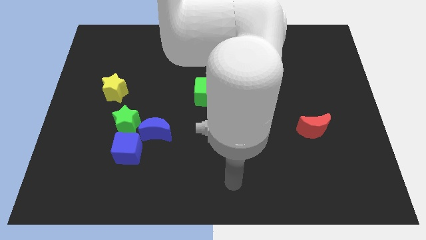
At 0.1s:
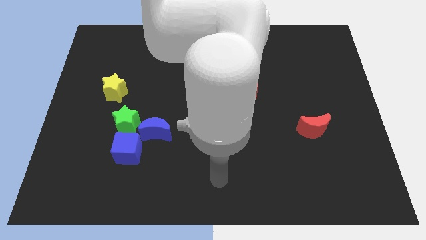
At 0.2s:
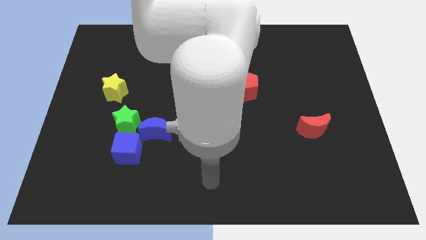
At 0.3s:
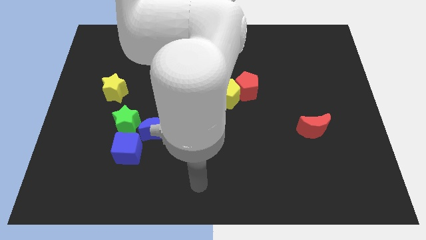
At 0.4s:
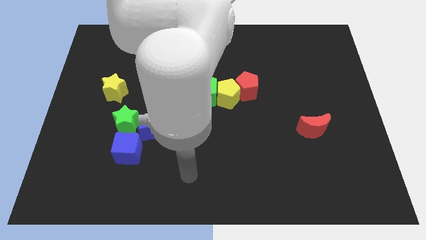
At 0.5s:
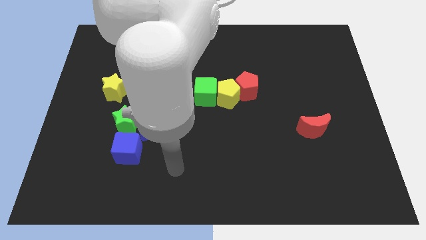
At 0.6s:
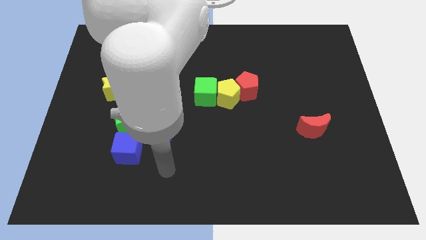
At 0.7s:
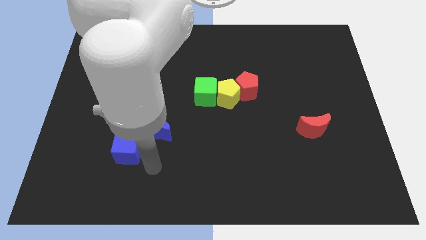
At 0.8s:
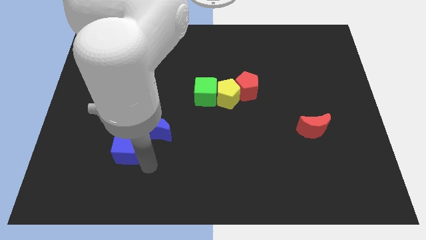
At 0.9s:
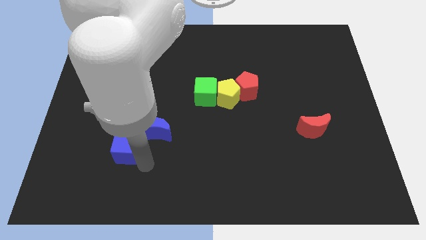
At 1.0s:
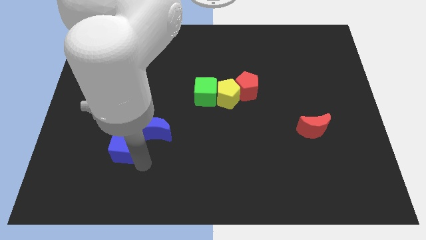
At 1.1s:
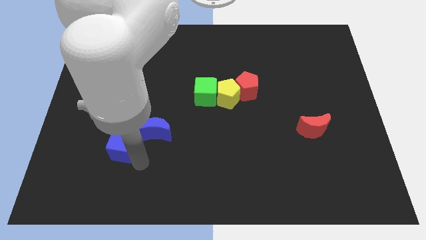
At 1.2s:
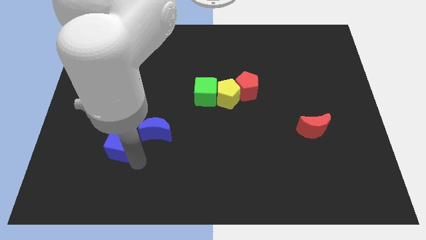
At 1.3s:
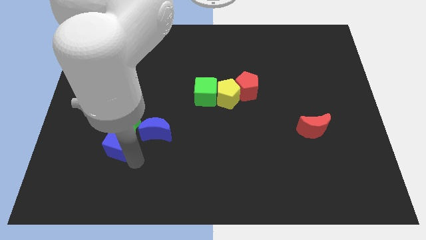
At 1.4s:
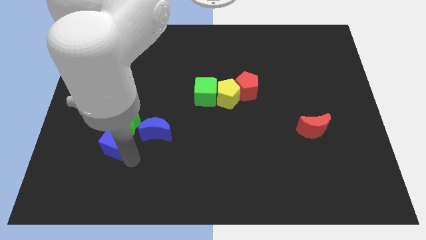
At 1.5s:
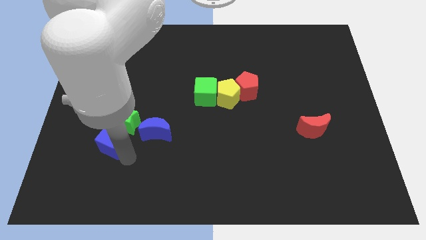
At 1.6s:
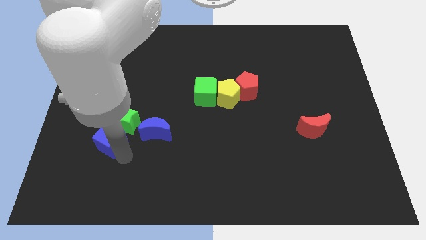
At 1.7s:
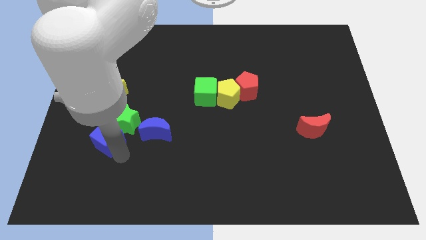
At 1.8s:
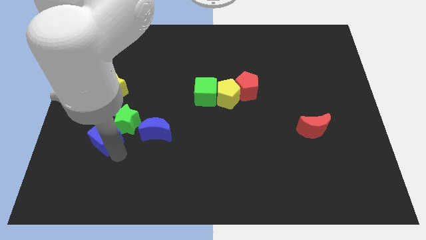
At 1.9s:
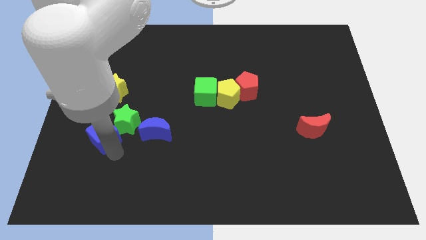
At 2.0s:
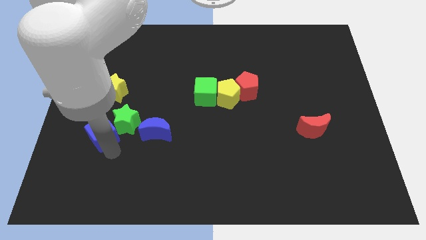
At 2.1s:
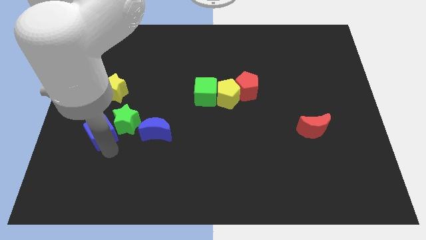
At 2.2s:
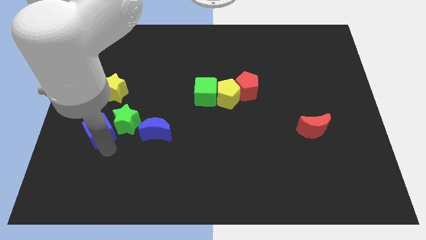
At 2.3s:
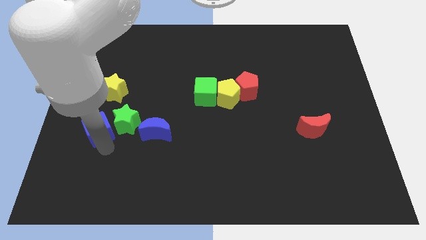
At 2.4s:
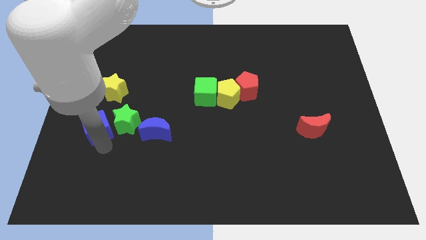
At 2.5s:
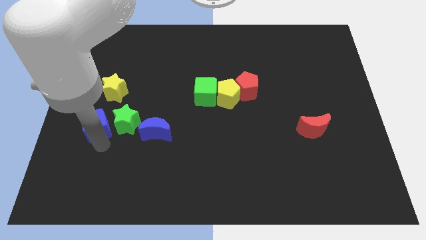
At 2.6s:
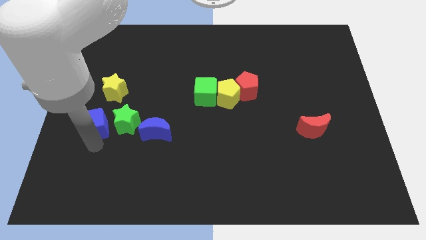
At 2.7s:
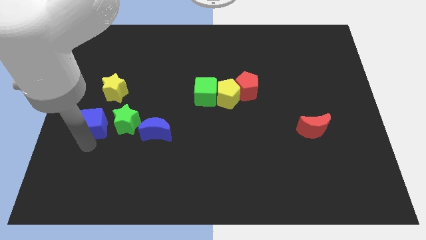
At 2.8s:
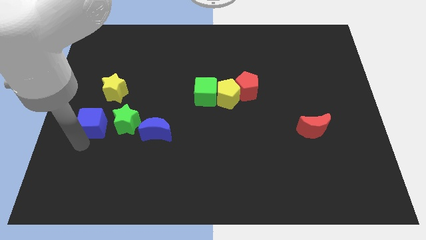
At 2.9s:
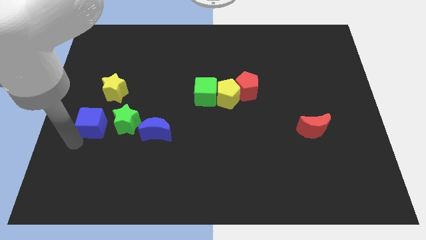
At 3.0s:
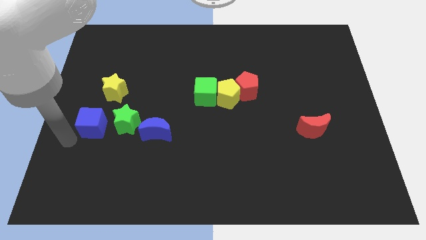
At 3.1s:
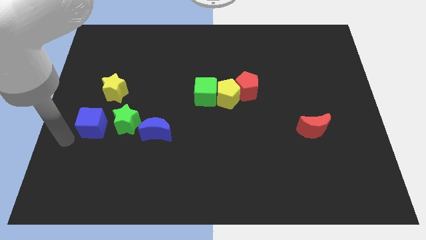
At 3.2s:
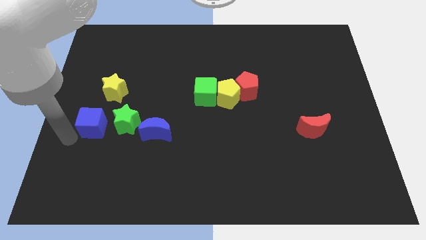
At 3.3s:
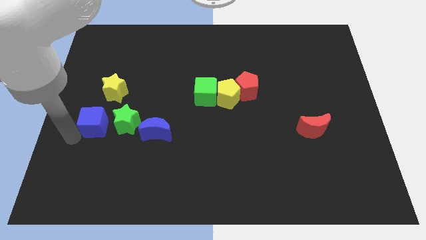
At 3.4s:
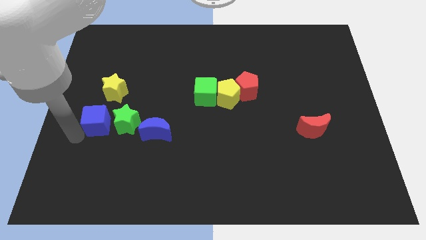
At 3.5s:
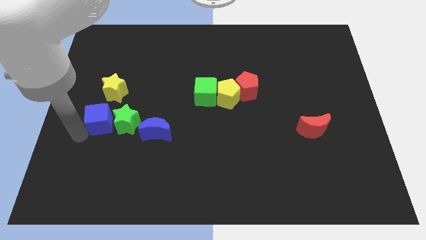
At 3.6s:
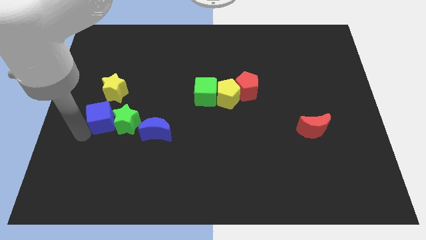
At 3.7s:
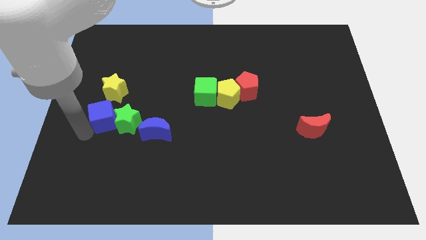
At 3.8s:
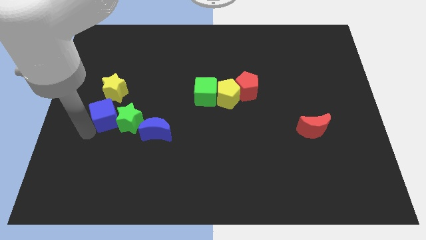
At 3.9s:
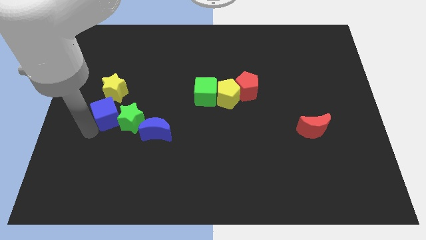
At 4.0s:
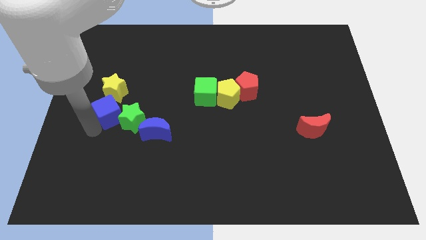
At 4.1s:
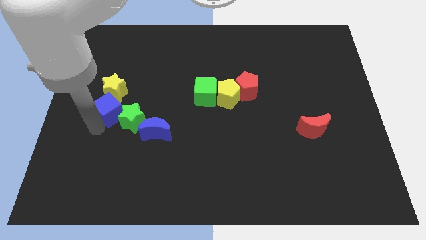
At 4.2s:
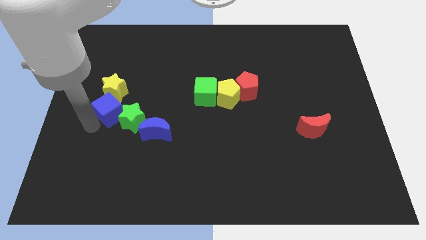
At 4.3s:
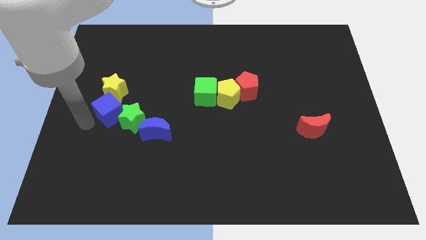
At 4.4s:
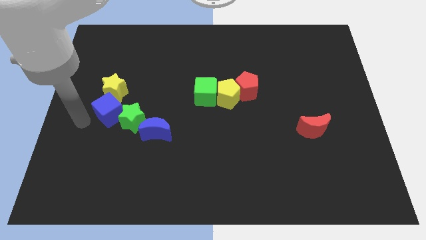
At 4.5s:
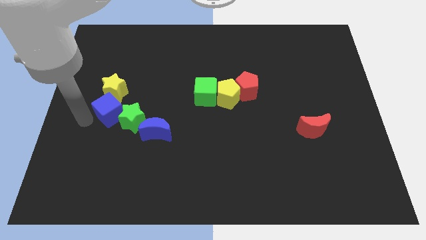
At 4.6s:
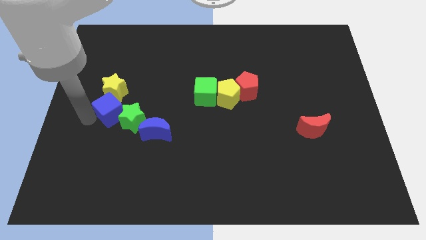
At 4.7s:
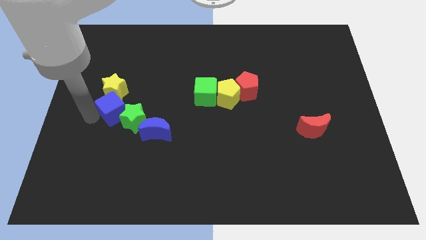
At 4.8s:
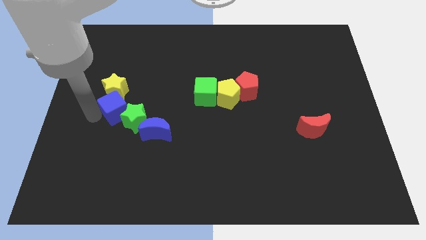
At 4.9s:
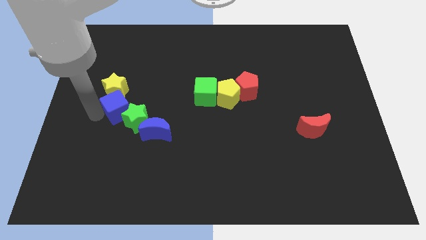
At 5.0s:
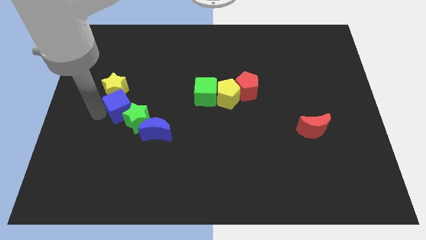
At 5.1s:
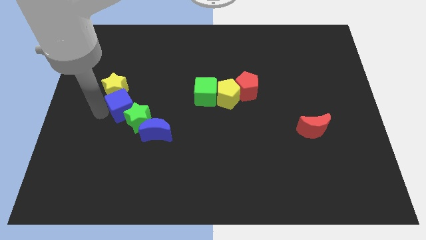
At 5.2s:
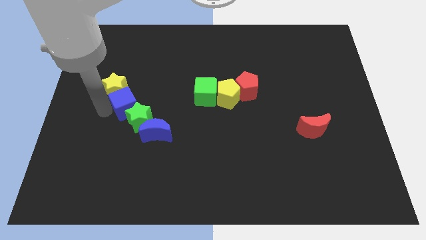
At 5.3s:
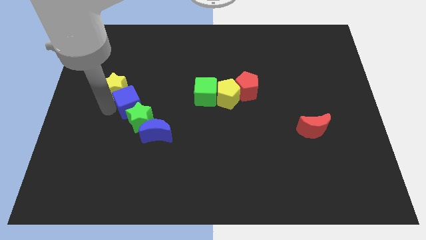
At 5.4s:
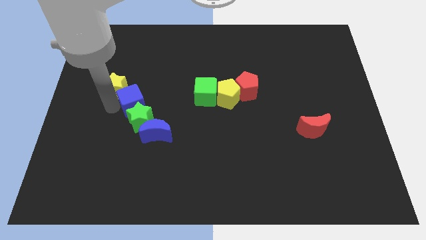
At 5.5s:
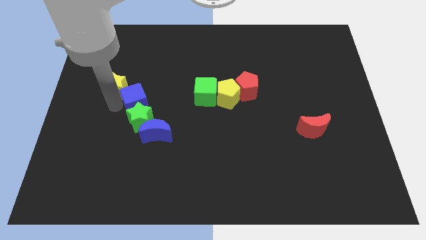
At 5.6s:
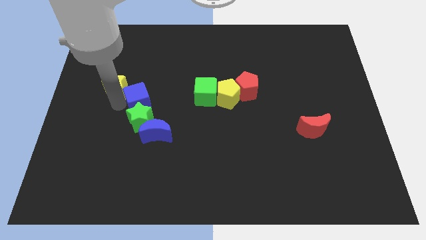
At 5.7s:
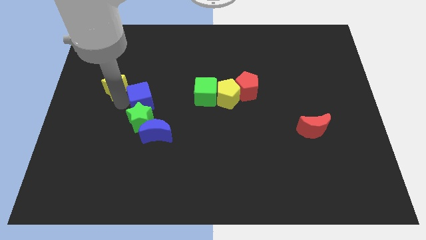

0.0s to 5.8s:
push the blue cube above the blue moon

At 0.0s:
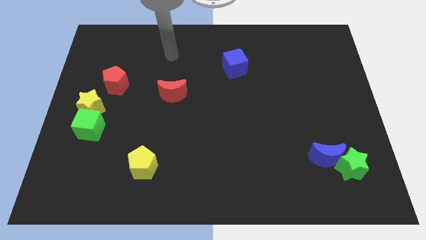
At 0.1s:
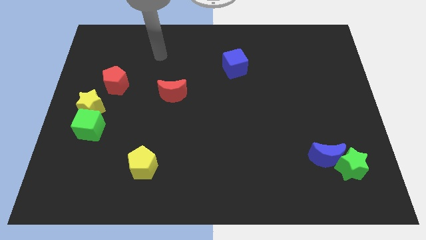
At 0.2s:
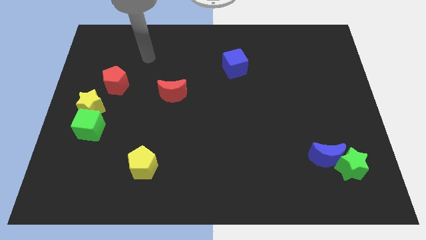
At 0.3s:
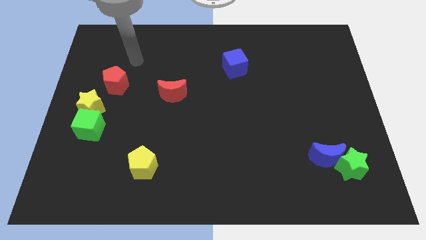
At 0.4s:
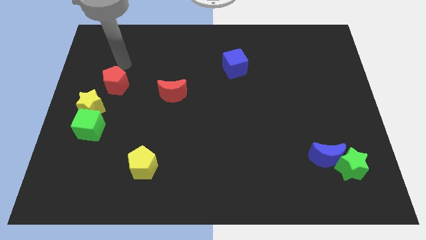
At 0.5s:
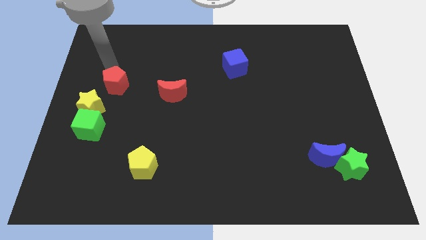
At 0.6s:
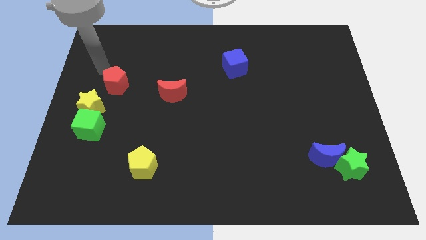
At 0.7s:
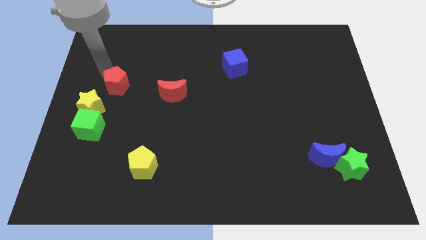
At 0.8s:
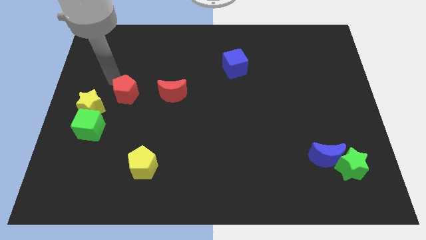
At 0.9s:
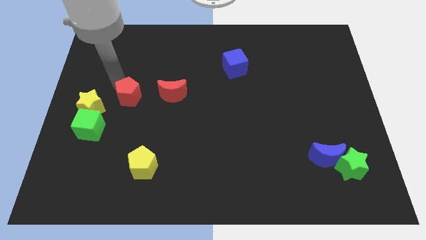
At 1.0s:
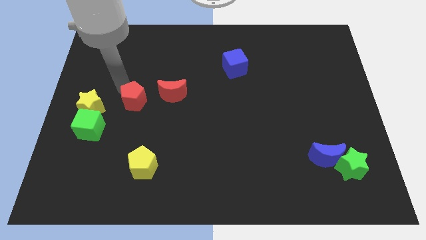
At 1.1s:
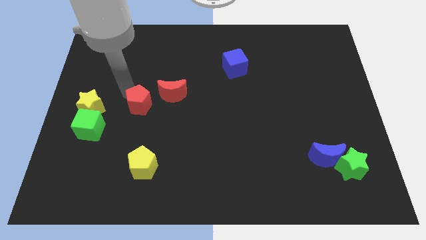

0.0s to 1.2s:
move the red pentagon to the bottom left of the red moon
